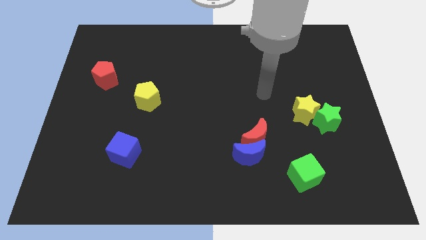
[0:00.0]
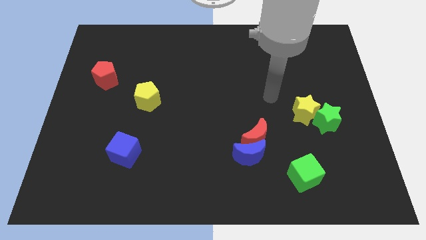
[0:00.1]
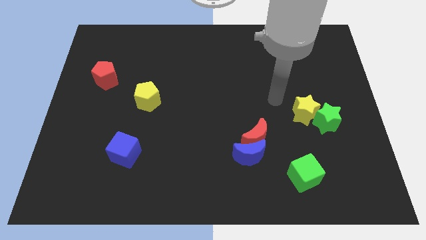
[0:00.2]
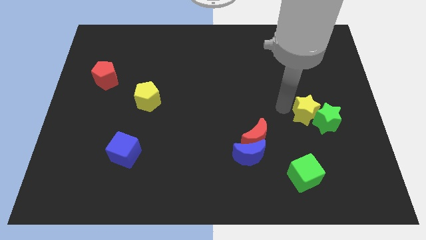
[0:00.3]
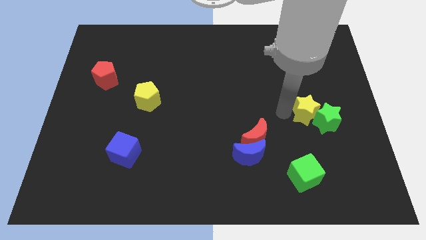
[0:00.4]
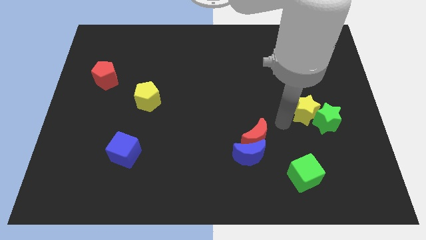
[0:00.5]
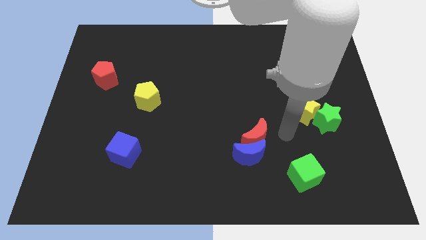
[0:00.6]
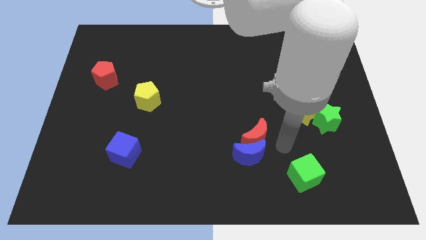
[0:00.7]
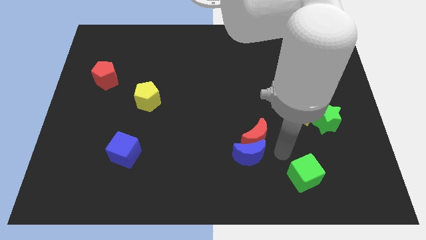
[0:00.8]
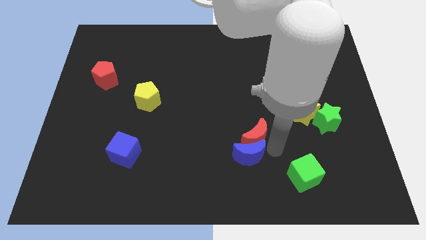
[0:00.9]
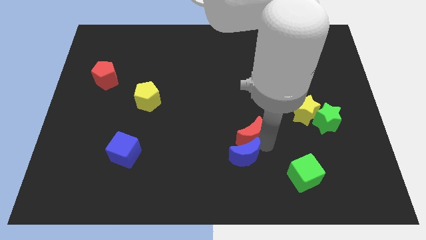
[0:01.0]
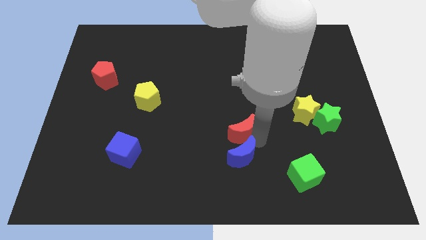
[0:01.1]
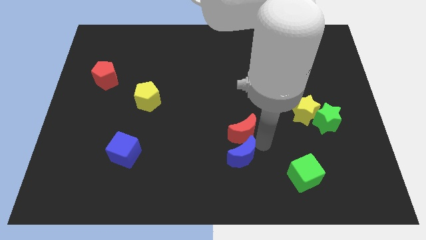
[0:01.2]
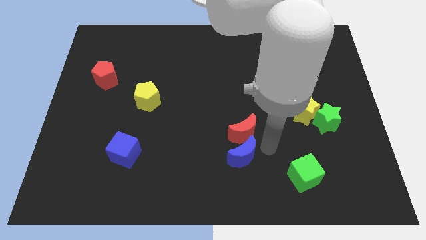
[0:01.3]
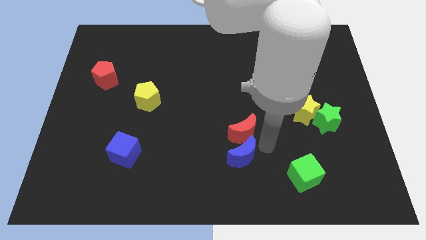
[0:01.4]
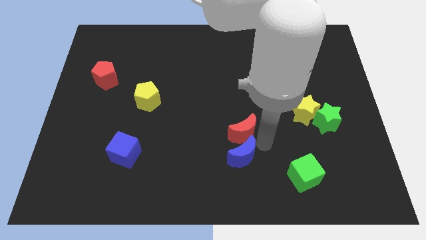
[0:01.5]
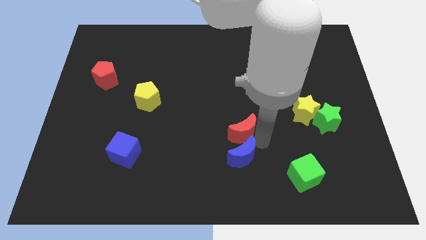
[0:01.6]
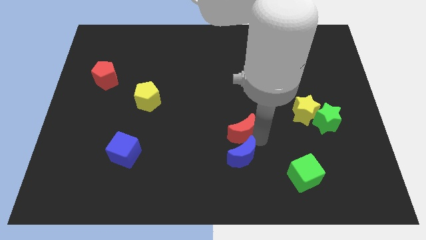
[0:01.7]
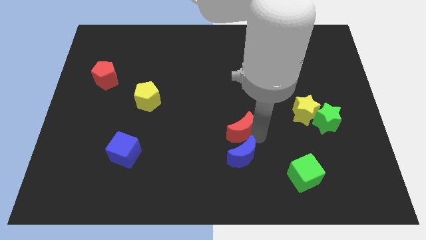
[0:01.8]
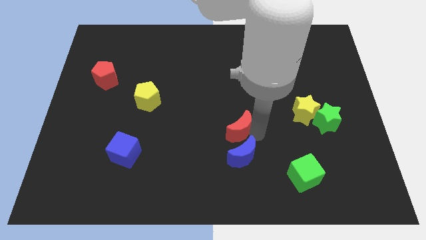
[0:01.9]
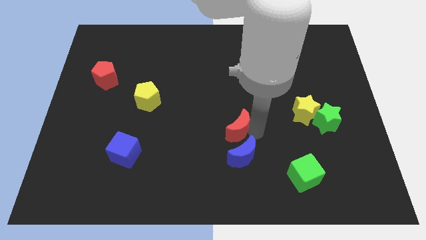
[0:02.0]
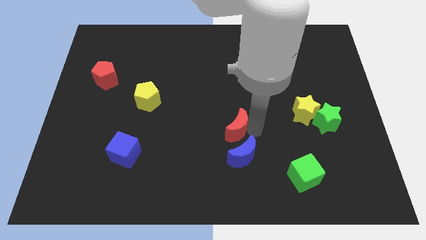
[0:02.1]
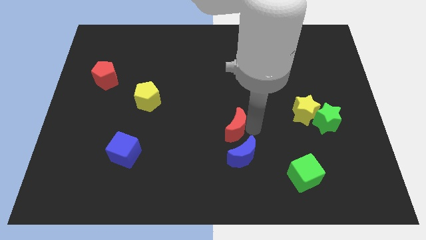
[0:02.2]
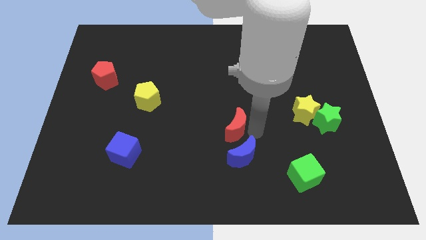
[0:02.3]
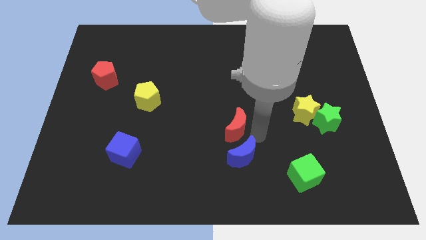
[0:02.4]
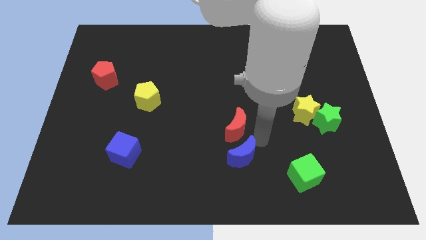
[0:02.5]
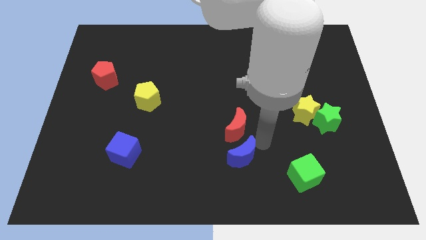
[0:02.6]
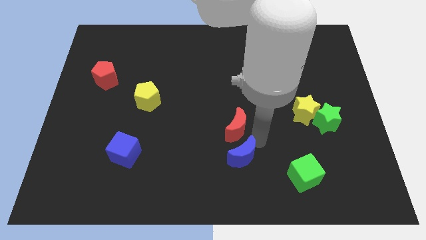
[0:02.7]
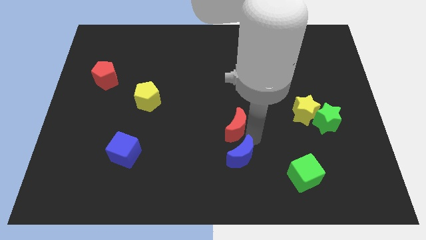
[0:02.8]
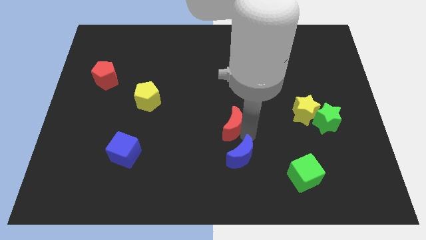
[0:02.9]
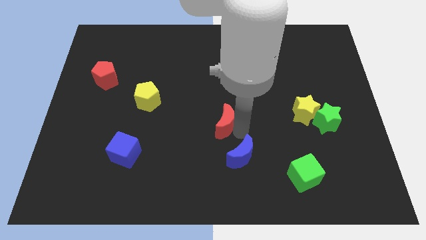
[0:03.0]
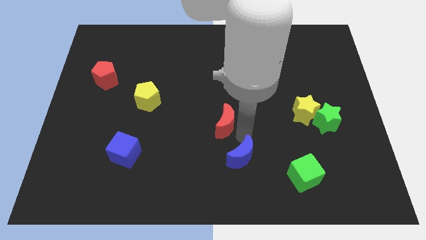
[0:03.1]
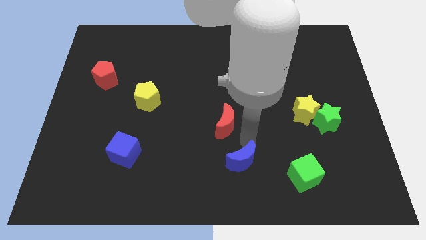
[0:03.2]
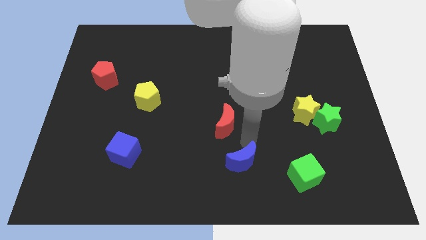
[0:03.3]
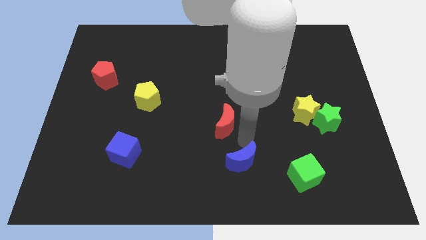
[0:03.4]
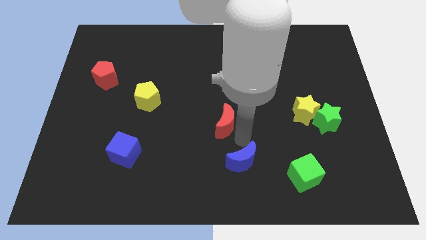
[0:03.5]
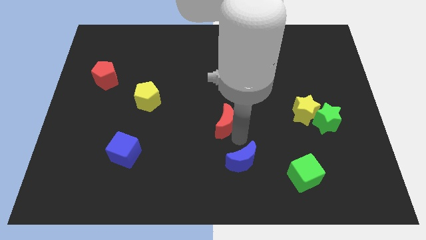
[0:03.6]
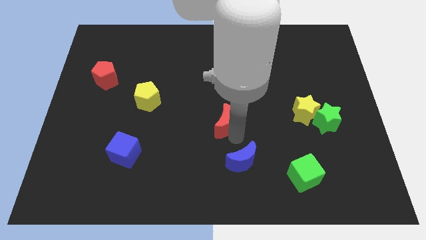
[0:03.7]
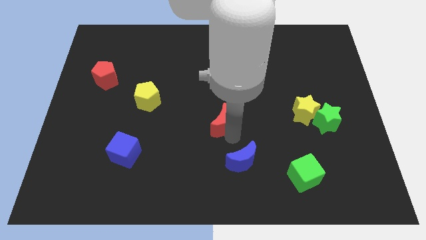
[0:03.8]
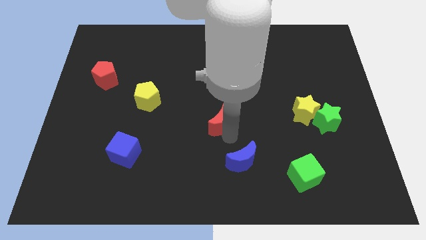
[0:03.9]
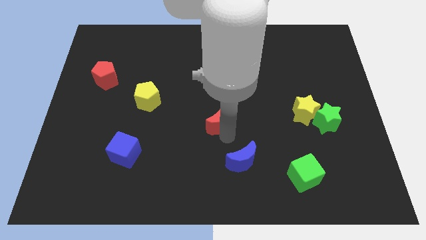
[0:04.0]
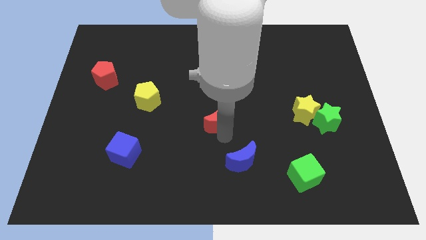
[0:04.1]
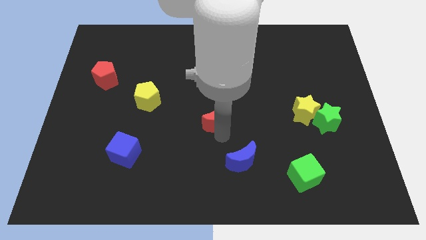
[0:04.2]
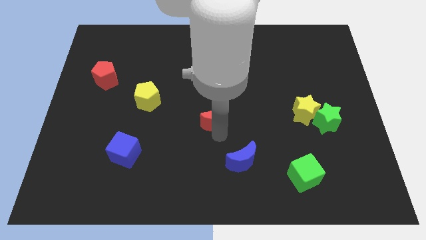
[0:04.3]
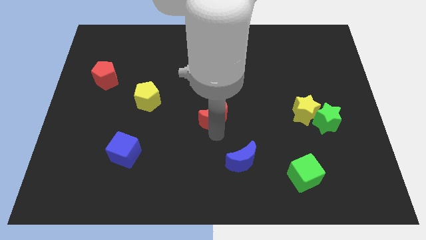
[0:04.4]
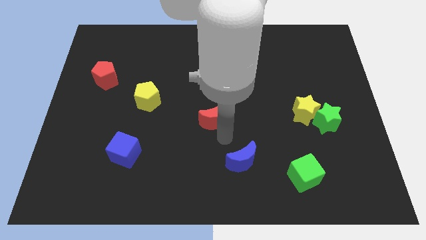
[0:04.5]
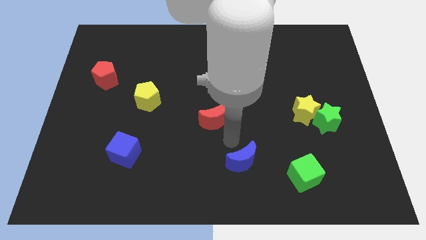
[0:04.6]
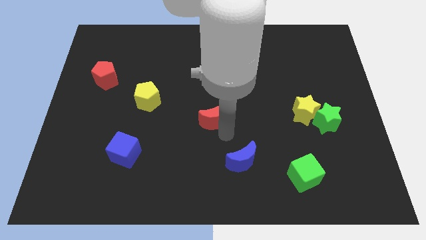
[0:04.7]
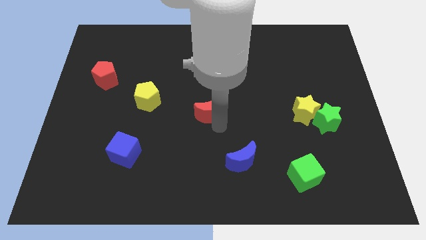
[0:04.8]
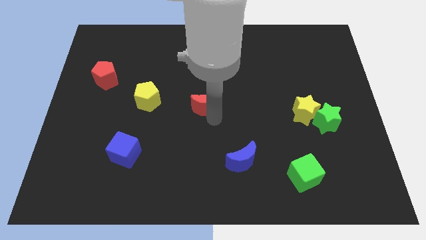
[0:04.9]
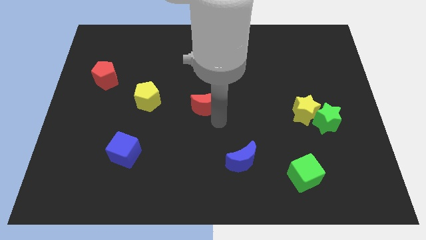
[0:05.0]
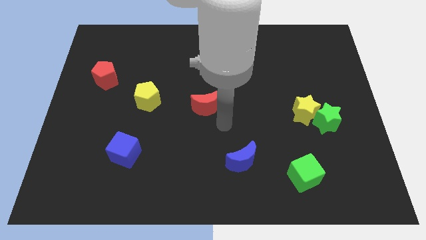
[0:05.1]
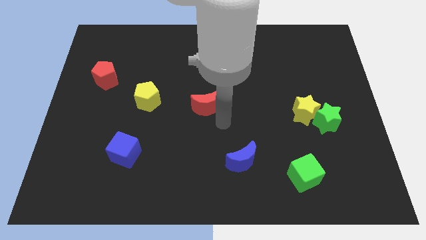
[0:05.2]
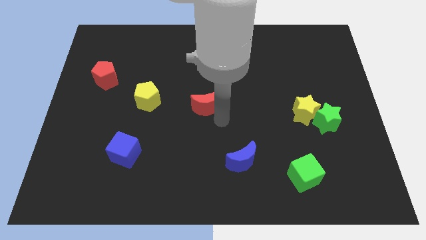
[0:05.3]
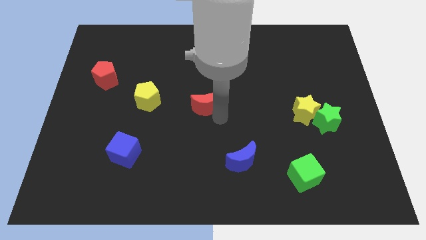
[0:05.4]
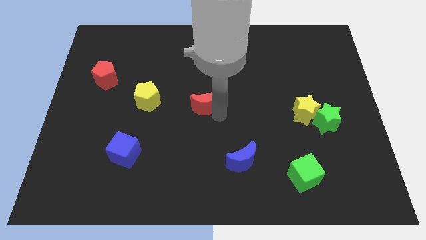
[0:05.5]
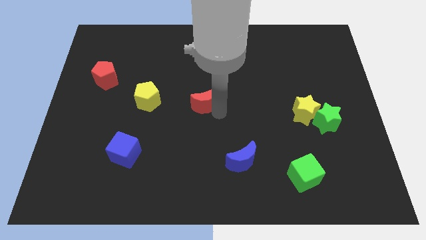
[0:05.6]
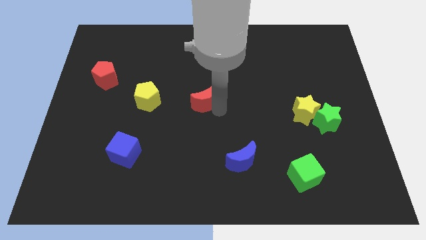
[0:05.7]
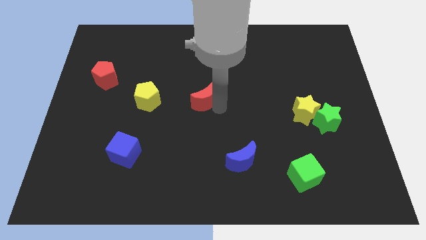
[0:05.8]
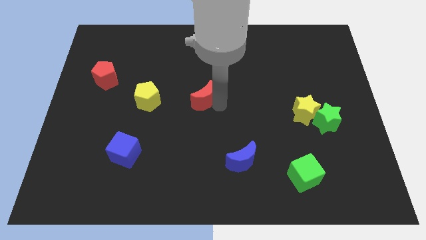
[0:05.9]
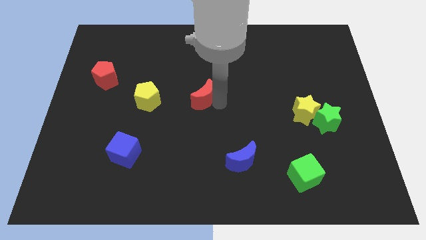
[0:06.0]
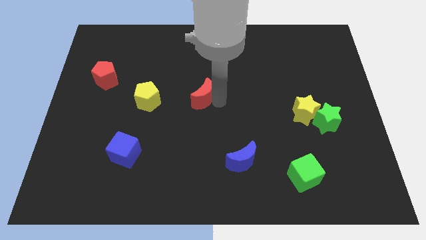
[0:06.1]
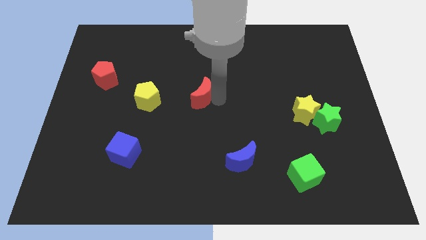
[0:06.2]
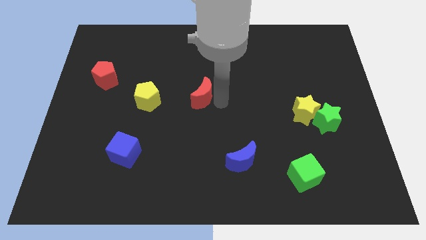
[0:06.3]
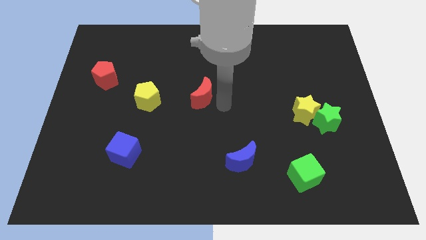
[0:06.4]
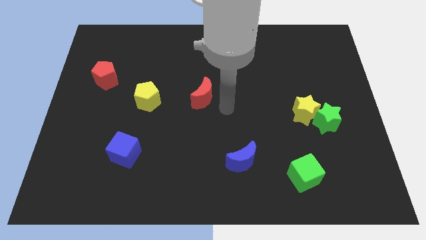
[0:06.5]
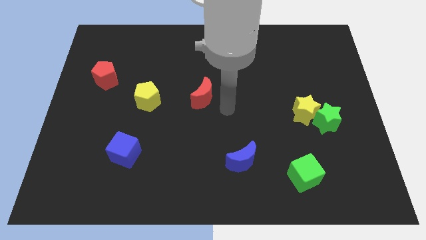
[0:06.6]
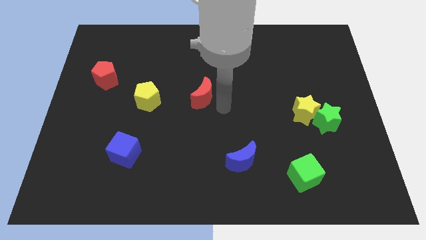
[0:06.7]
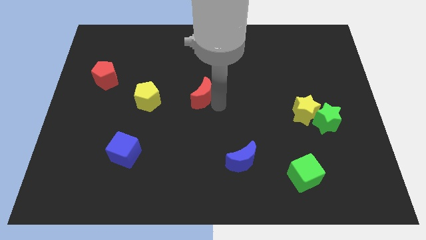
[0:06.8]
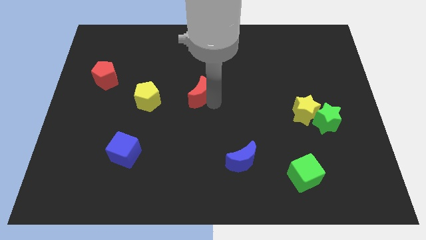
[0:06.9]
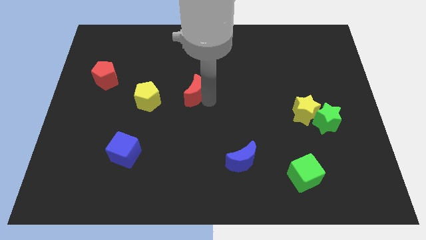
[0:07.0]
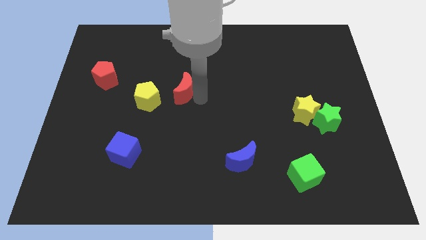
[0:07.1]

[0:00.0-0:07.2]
move the red moon up and to the left diagonally

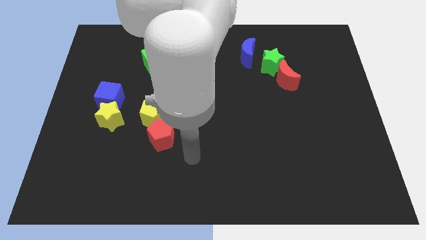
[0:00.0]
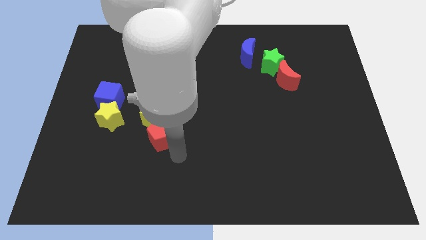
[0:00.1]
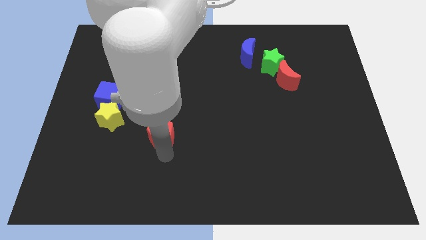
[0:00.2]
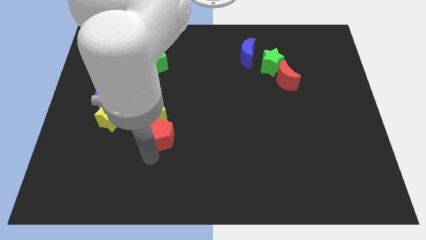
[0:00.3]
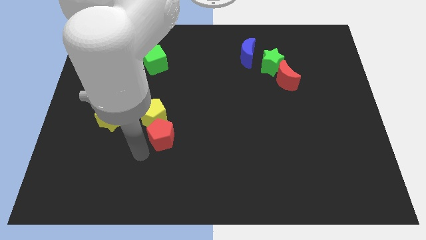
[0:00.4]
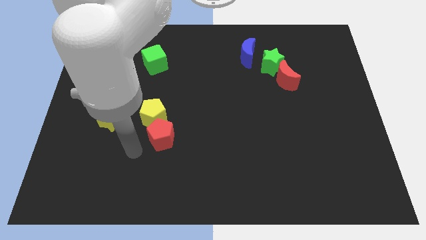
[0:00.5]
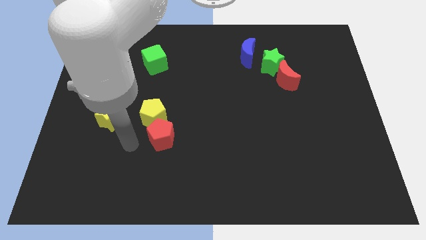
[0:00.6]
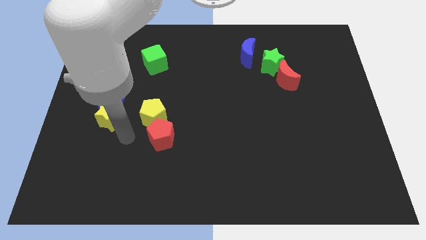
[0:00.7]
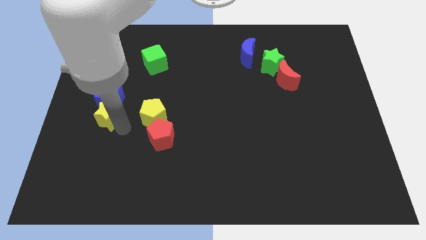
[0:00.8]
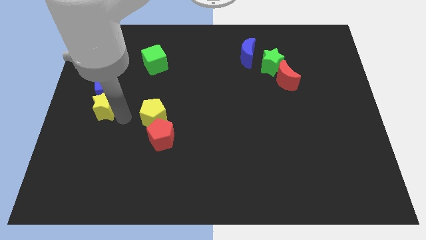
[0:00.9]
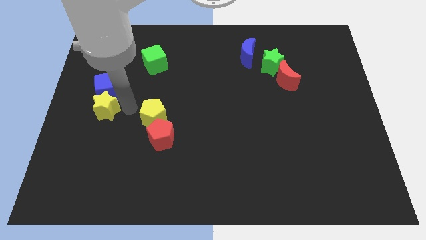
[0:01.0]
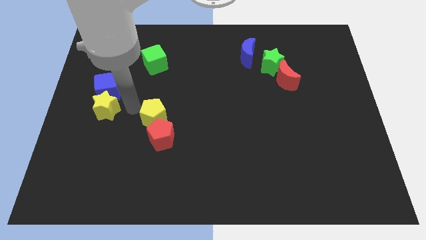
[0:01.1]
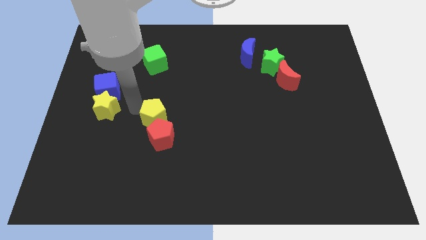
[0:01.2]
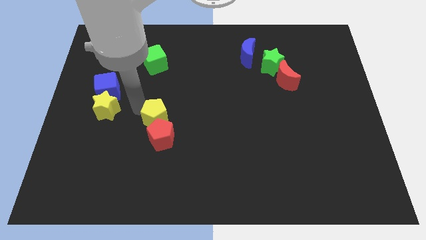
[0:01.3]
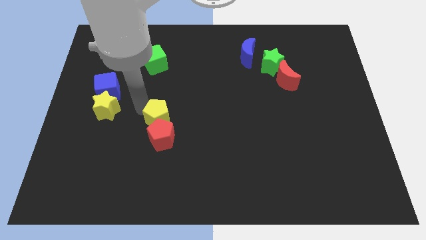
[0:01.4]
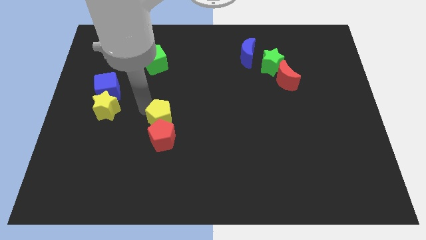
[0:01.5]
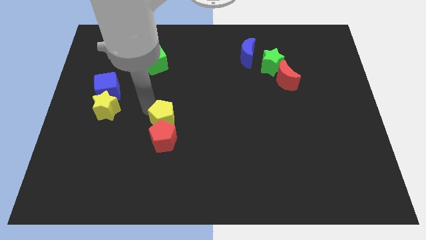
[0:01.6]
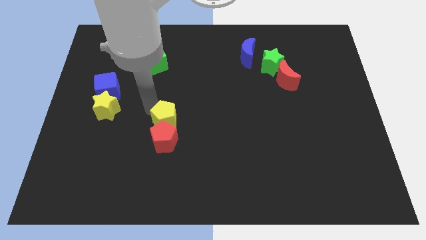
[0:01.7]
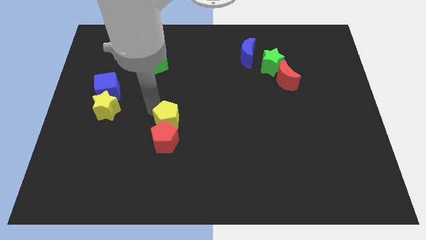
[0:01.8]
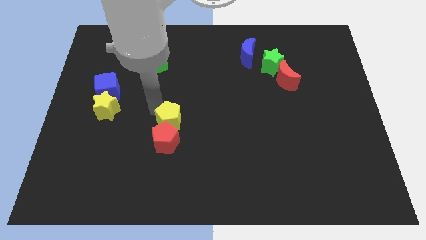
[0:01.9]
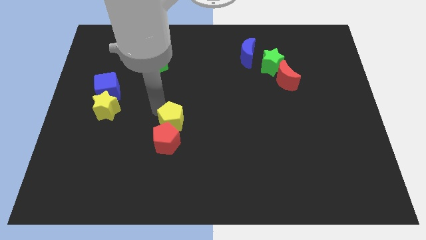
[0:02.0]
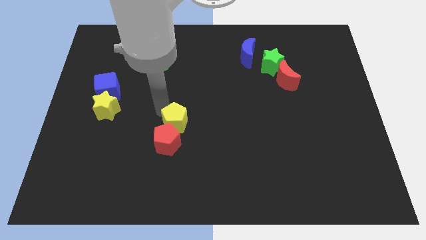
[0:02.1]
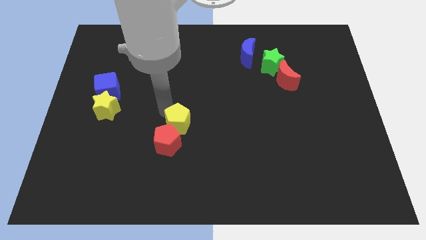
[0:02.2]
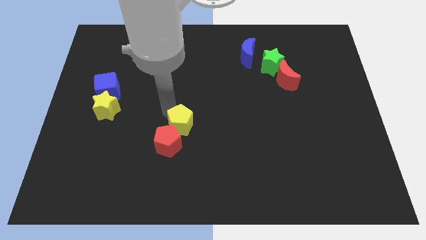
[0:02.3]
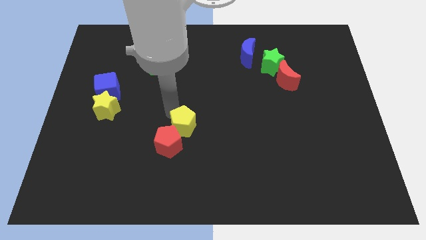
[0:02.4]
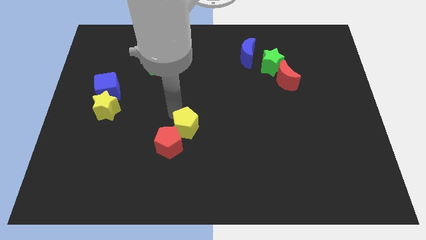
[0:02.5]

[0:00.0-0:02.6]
slightly slide the yellow pentagon down and then right
